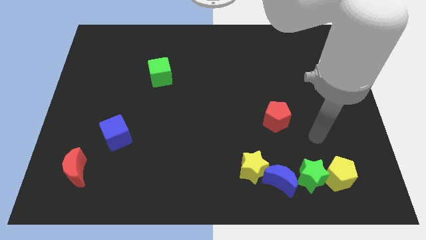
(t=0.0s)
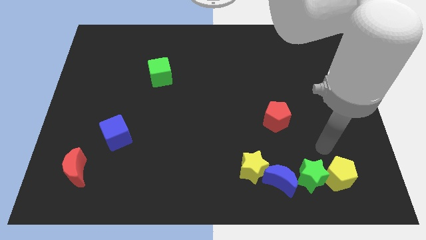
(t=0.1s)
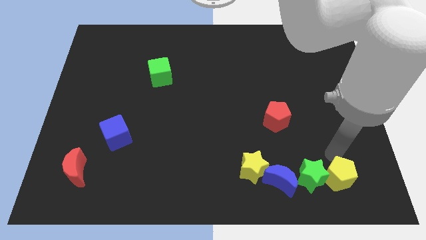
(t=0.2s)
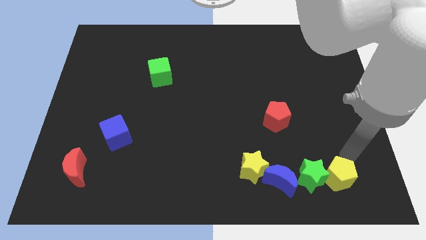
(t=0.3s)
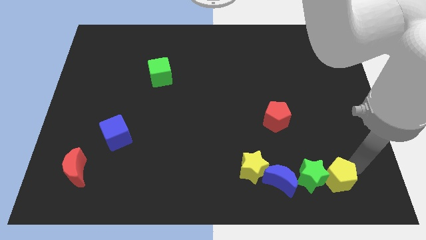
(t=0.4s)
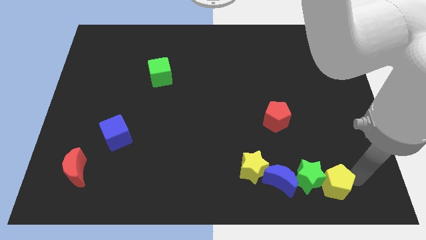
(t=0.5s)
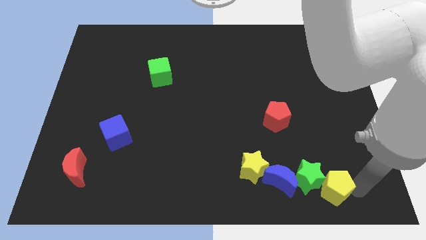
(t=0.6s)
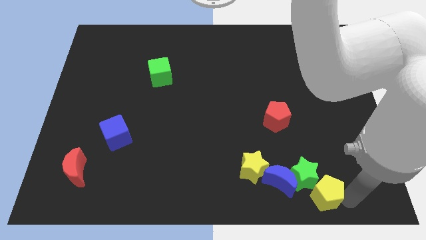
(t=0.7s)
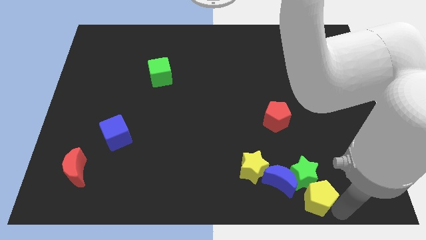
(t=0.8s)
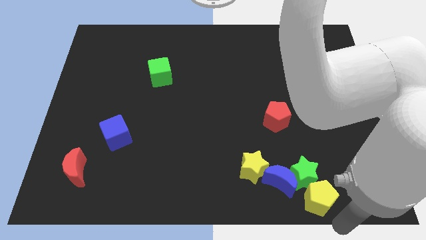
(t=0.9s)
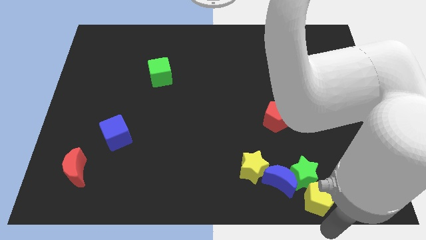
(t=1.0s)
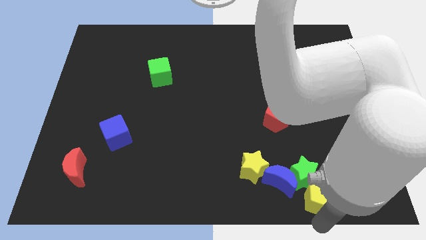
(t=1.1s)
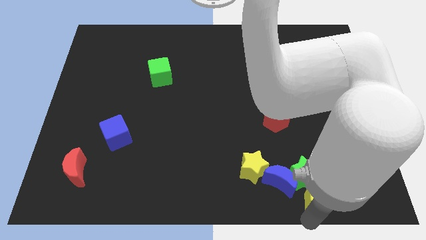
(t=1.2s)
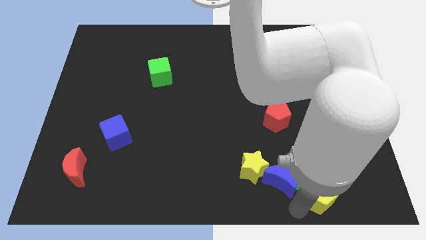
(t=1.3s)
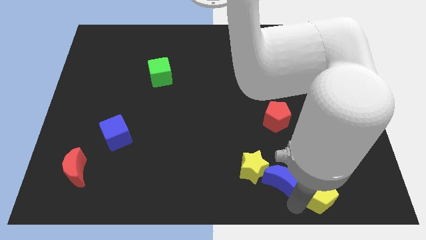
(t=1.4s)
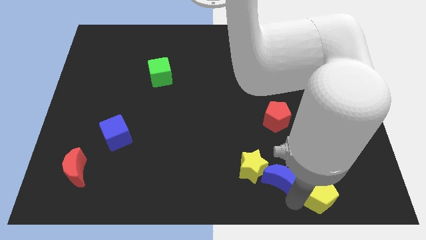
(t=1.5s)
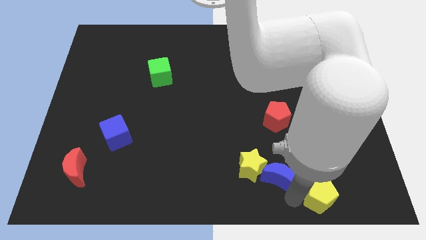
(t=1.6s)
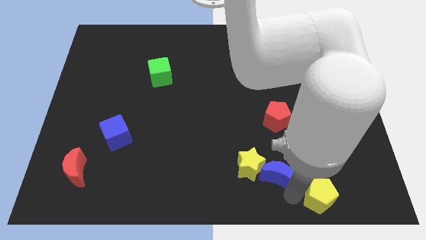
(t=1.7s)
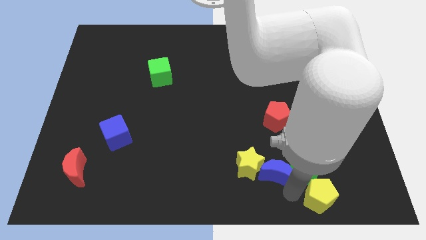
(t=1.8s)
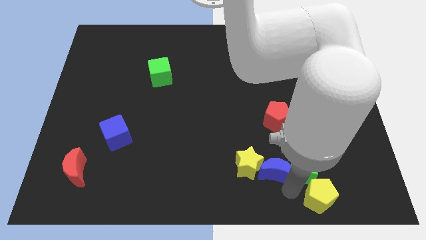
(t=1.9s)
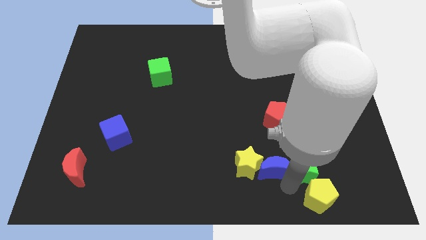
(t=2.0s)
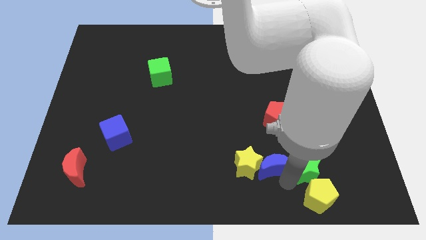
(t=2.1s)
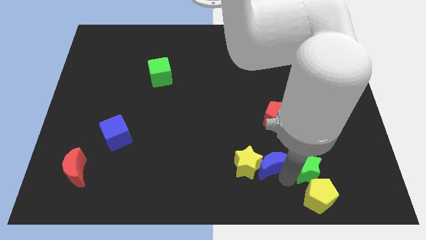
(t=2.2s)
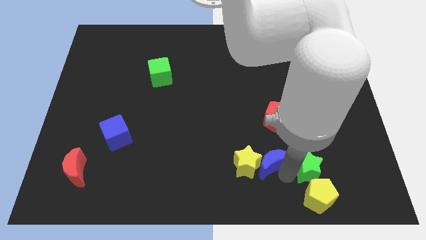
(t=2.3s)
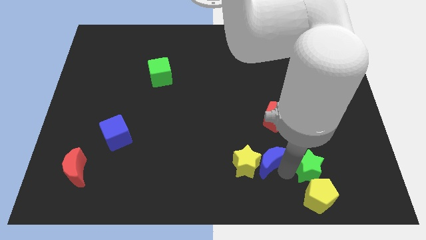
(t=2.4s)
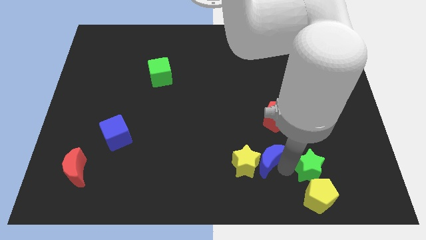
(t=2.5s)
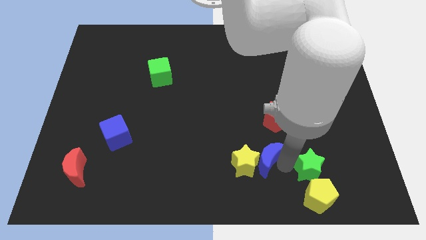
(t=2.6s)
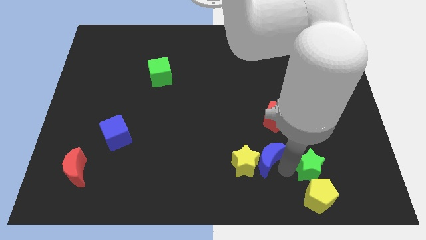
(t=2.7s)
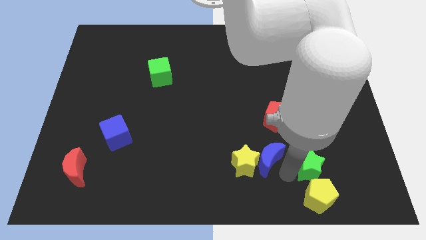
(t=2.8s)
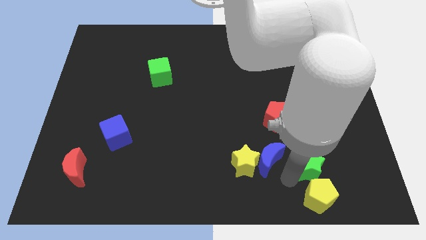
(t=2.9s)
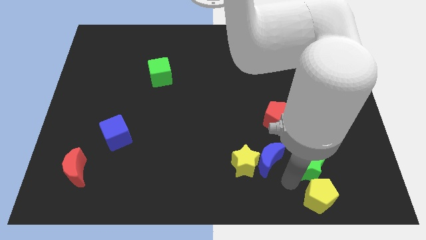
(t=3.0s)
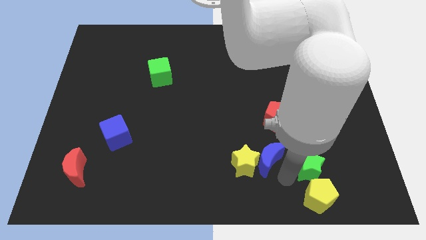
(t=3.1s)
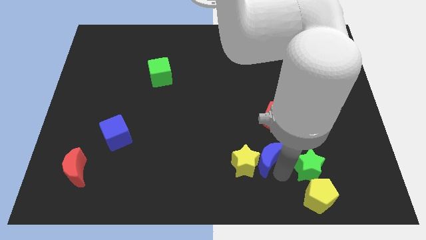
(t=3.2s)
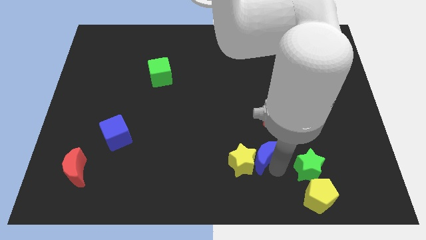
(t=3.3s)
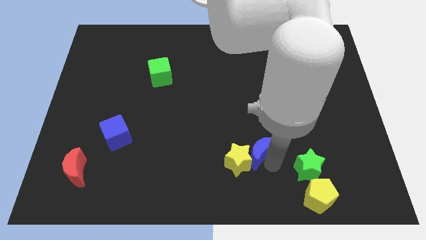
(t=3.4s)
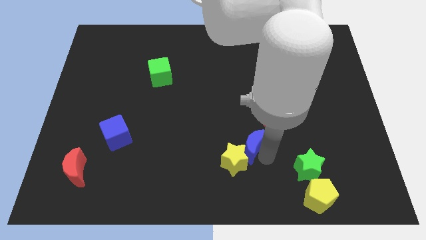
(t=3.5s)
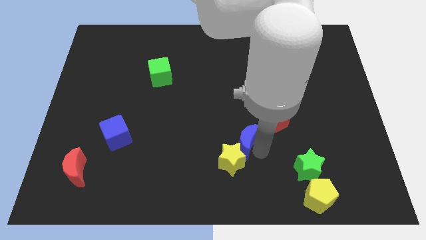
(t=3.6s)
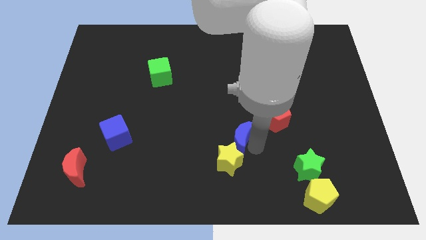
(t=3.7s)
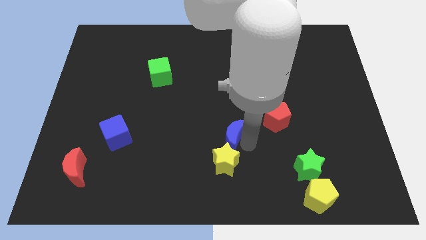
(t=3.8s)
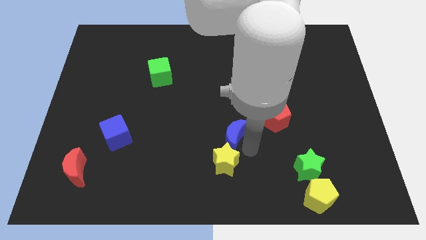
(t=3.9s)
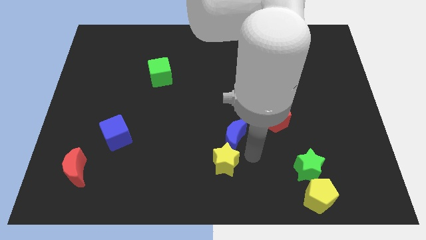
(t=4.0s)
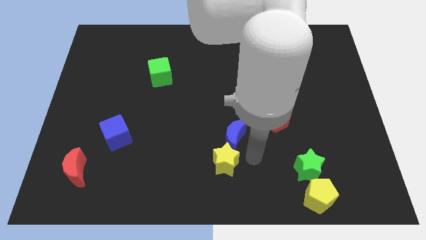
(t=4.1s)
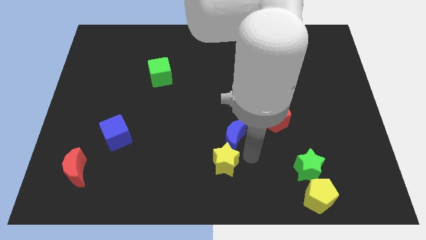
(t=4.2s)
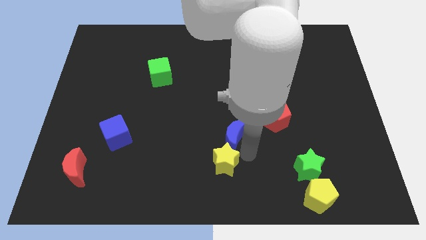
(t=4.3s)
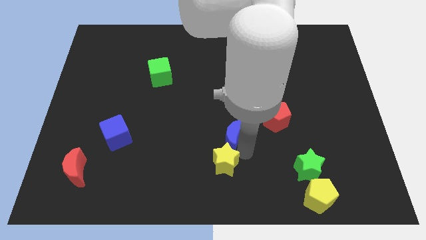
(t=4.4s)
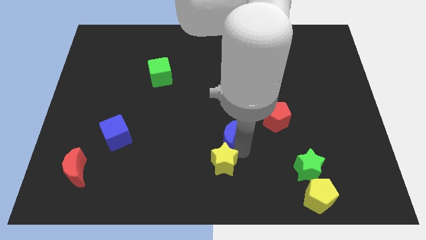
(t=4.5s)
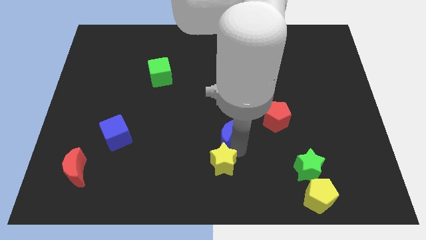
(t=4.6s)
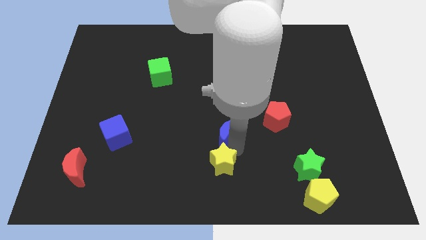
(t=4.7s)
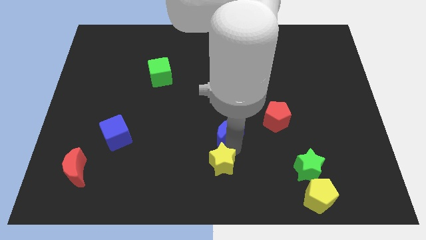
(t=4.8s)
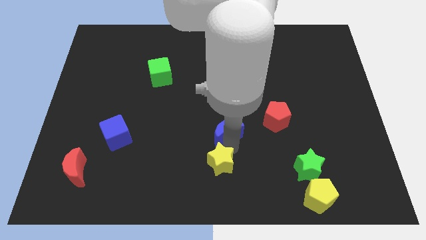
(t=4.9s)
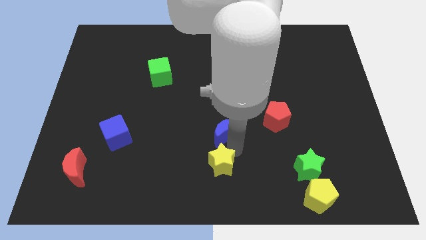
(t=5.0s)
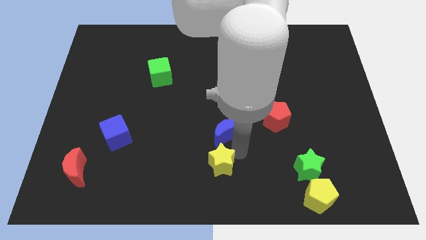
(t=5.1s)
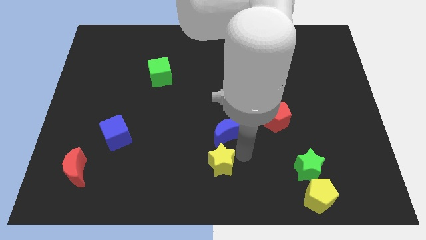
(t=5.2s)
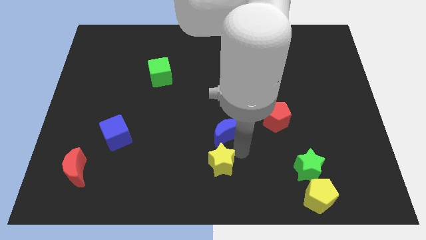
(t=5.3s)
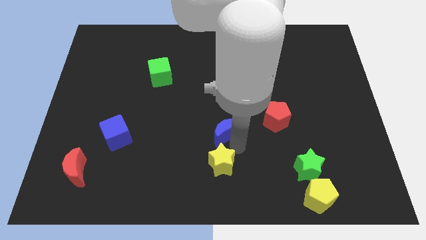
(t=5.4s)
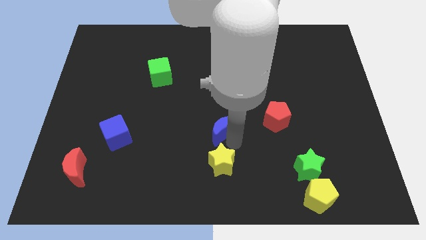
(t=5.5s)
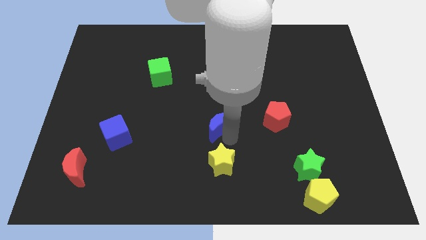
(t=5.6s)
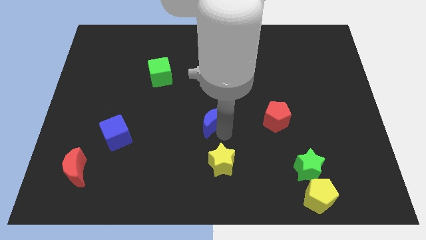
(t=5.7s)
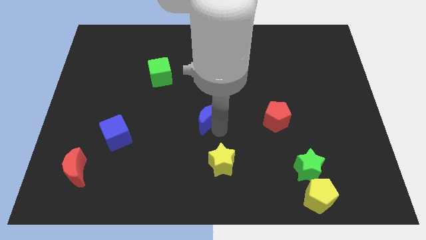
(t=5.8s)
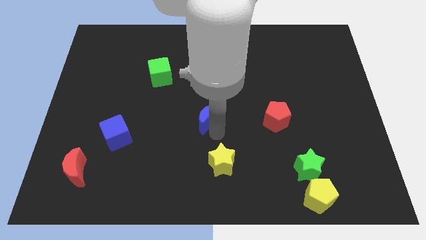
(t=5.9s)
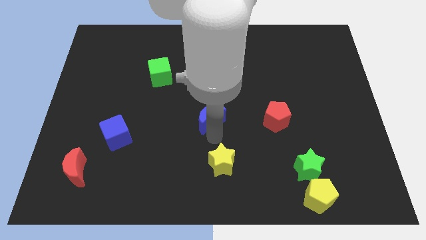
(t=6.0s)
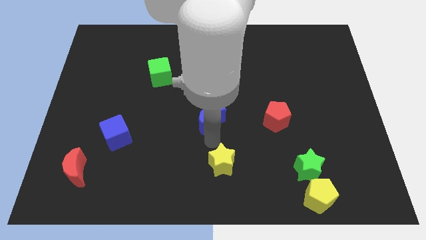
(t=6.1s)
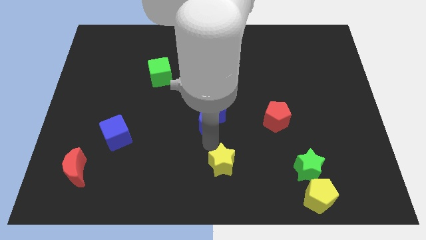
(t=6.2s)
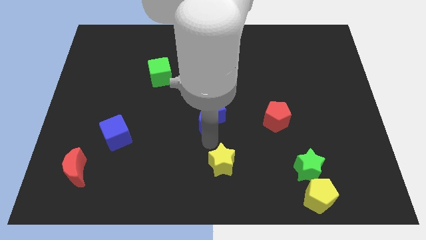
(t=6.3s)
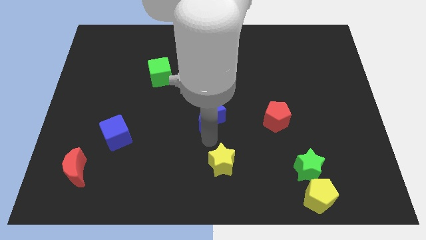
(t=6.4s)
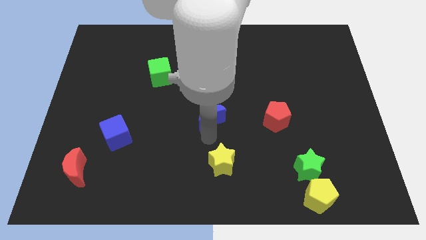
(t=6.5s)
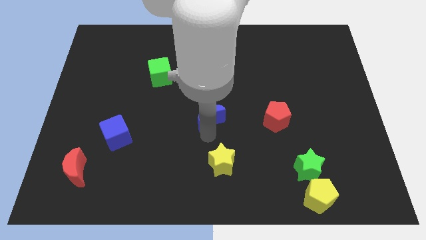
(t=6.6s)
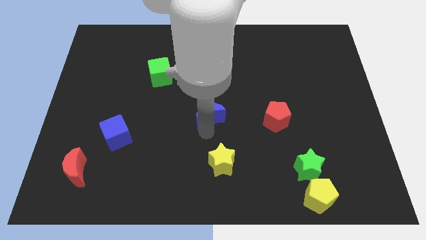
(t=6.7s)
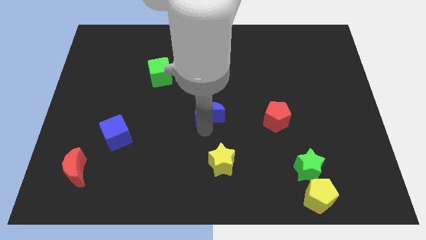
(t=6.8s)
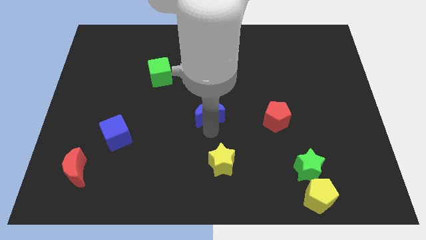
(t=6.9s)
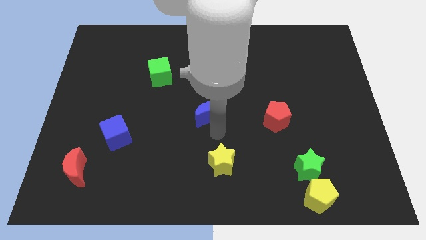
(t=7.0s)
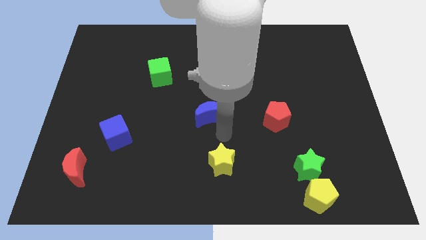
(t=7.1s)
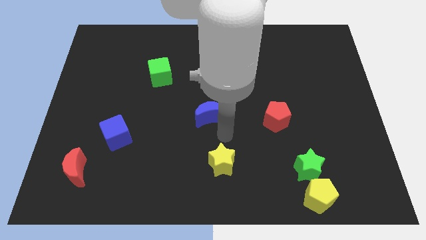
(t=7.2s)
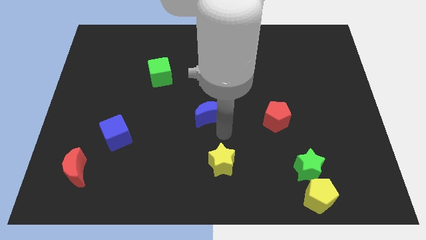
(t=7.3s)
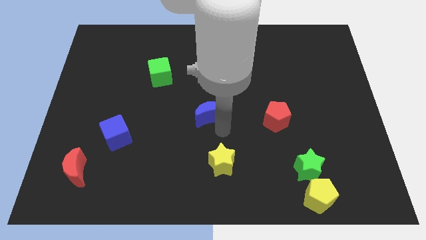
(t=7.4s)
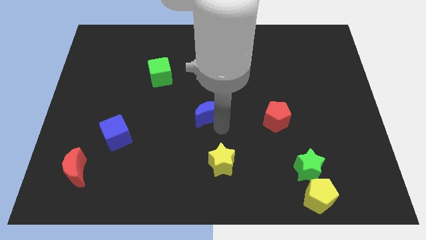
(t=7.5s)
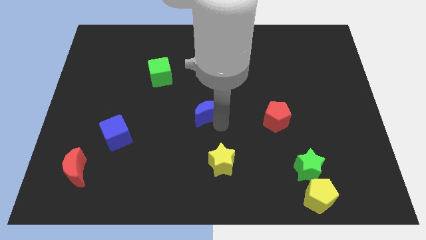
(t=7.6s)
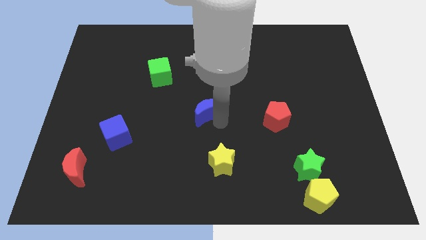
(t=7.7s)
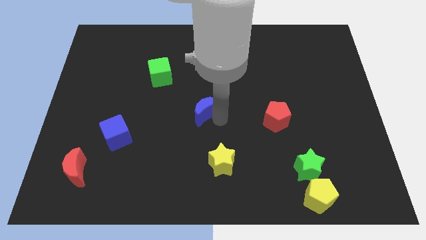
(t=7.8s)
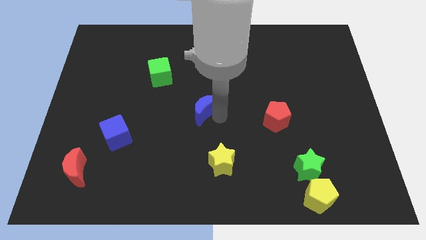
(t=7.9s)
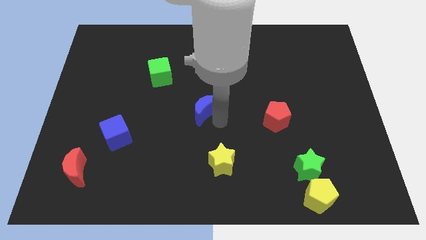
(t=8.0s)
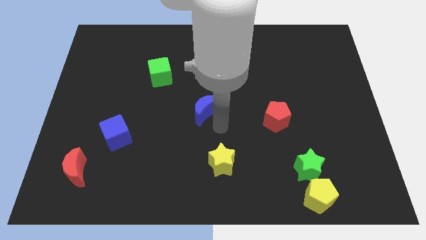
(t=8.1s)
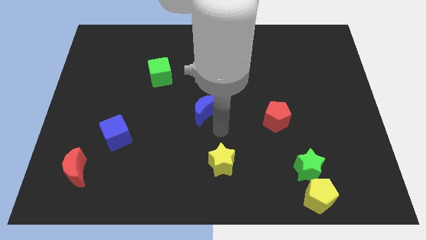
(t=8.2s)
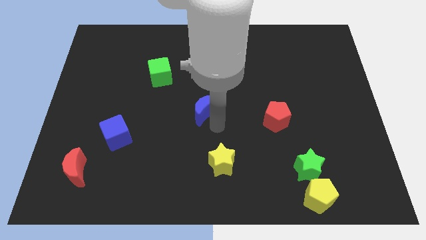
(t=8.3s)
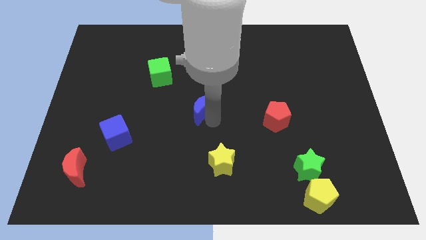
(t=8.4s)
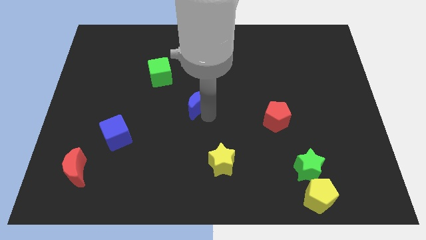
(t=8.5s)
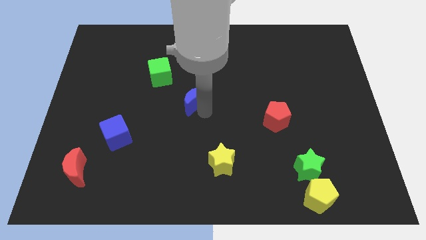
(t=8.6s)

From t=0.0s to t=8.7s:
push the blue moon to the bottom right of the green cube
